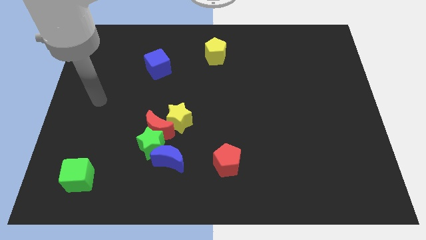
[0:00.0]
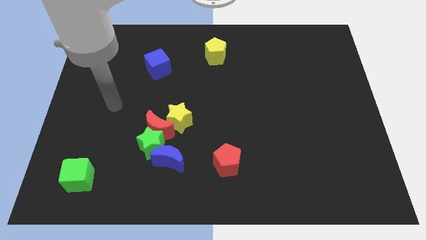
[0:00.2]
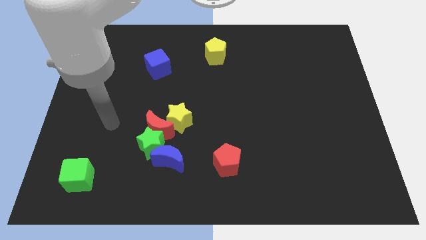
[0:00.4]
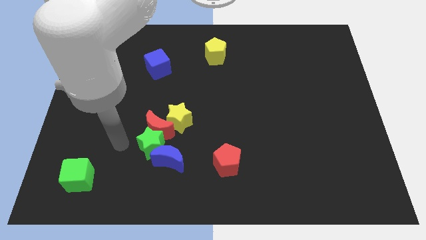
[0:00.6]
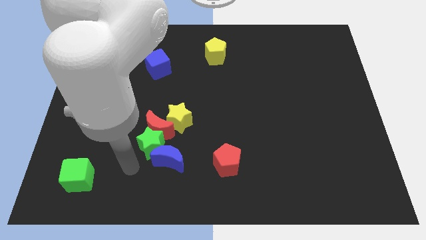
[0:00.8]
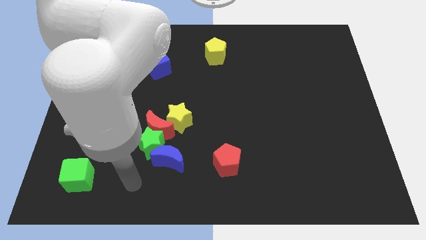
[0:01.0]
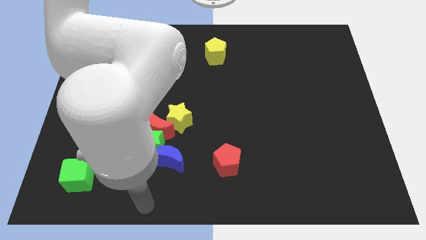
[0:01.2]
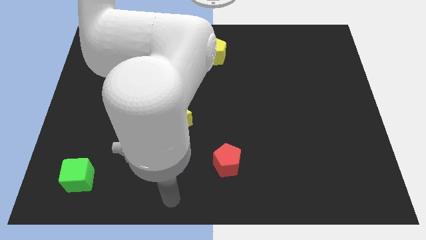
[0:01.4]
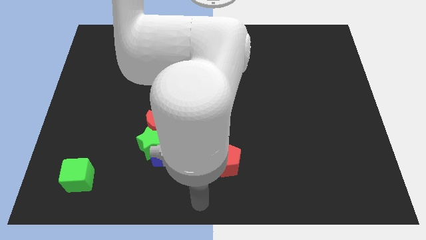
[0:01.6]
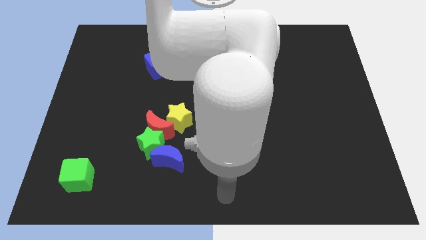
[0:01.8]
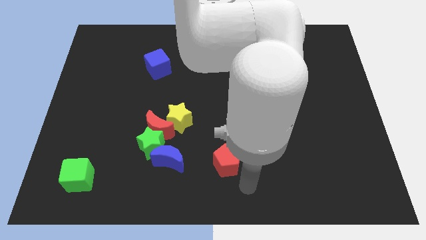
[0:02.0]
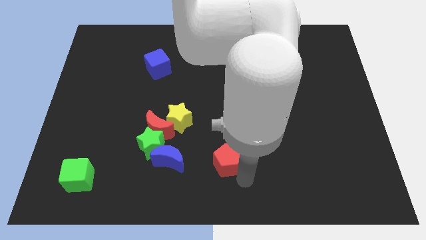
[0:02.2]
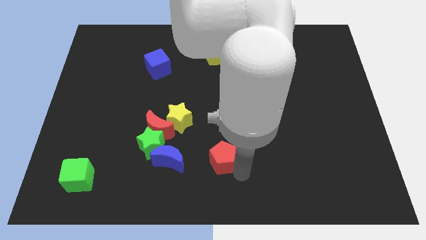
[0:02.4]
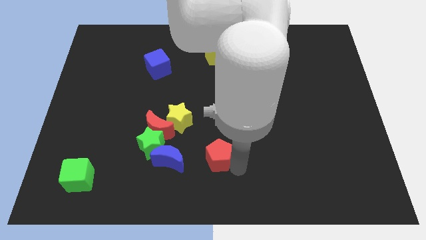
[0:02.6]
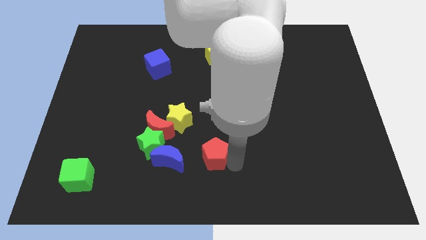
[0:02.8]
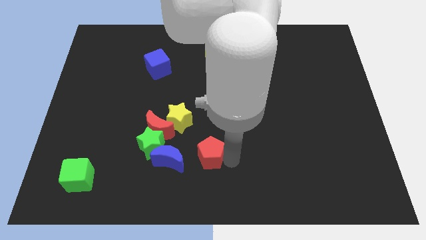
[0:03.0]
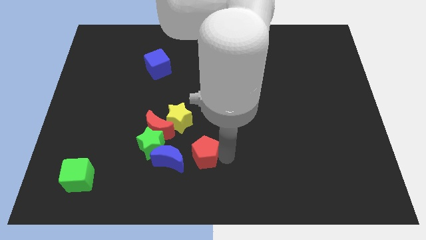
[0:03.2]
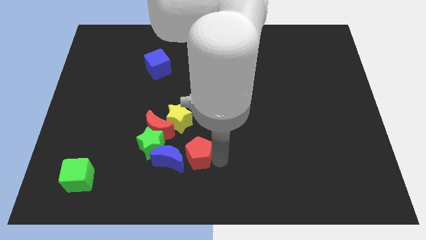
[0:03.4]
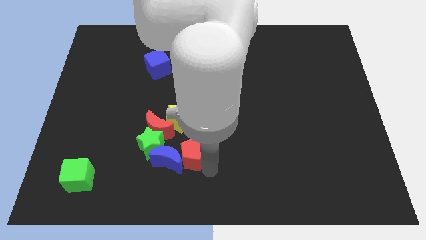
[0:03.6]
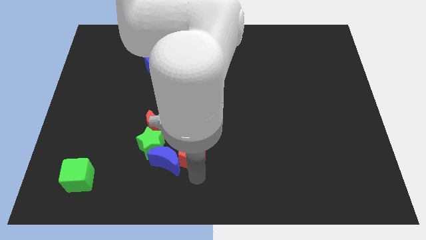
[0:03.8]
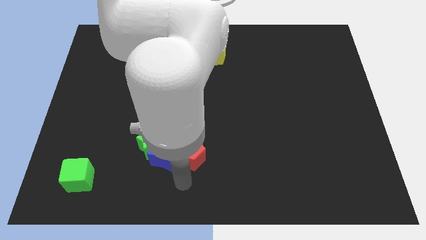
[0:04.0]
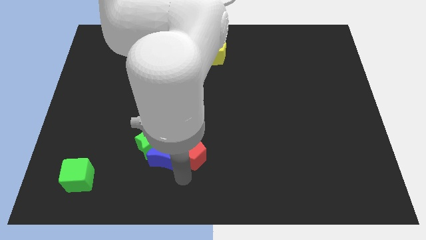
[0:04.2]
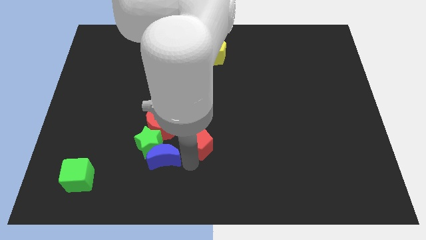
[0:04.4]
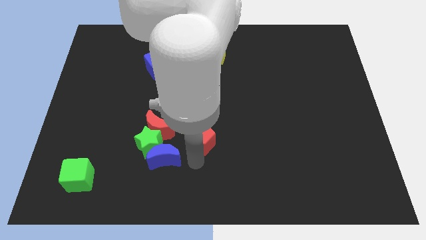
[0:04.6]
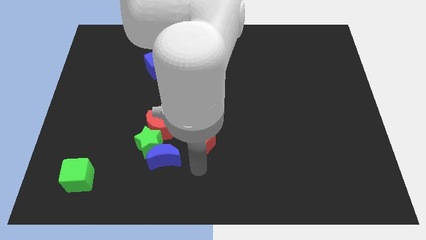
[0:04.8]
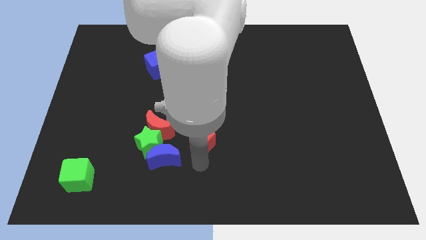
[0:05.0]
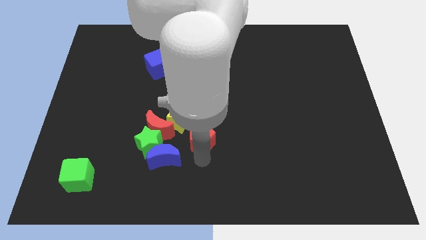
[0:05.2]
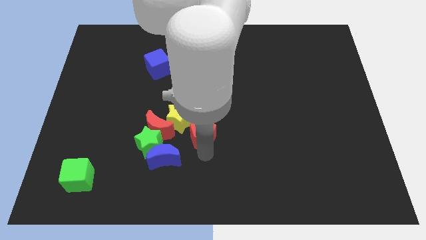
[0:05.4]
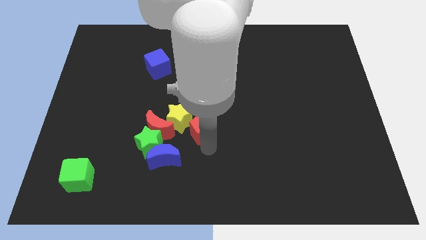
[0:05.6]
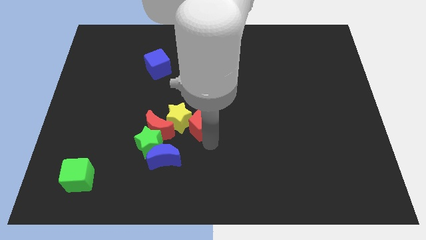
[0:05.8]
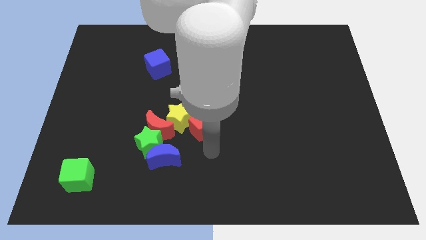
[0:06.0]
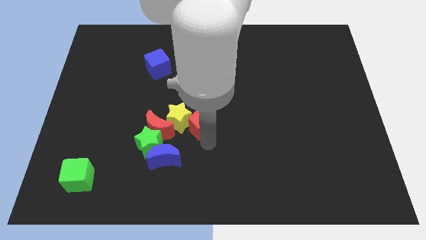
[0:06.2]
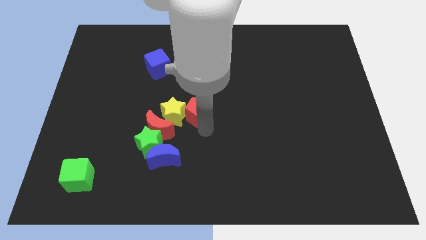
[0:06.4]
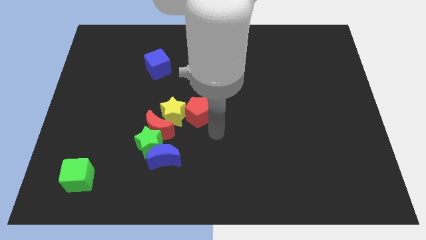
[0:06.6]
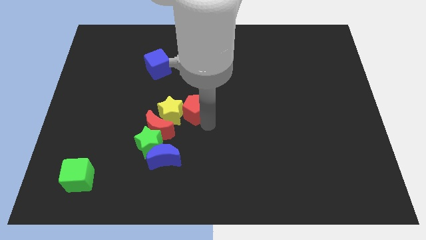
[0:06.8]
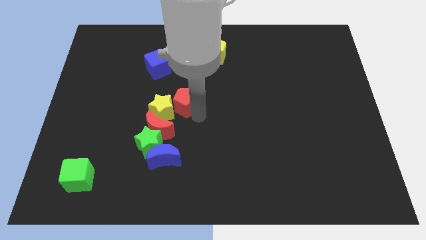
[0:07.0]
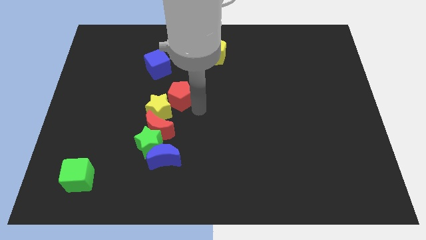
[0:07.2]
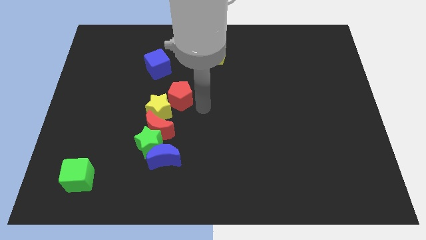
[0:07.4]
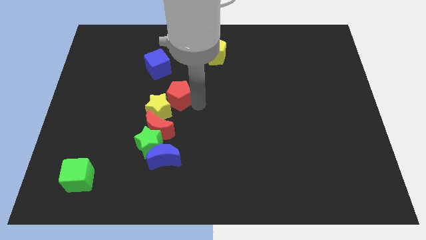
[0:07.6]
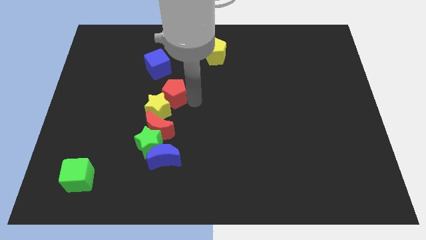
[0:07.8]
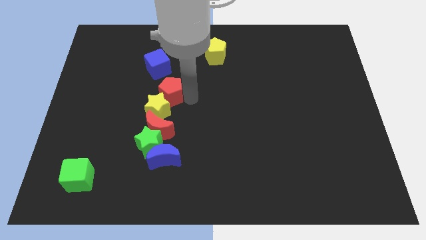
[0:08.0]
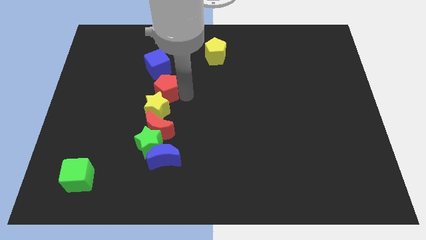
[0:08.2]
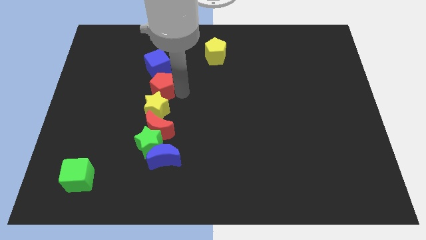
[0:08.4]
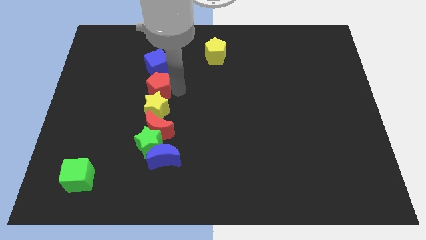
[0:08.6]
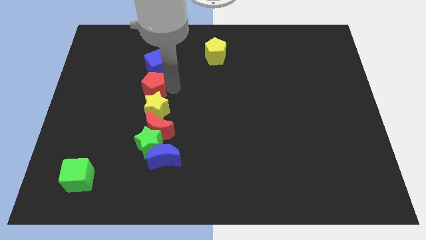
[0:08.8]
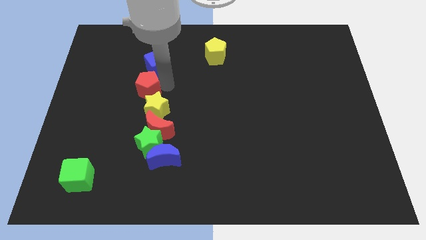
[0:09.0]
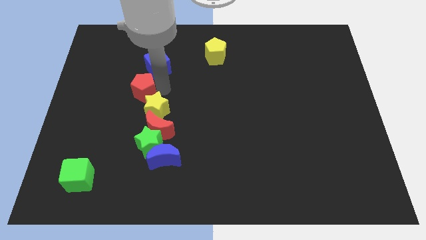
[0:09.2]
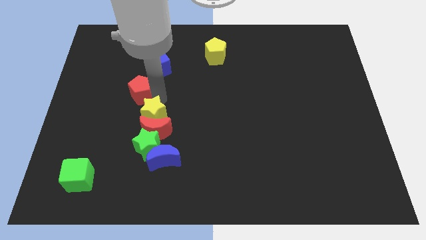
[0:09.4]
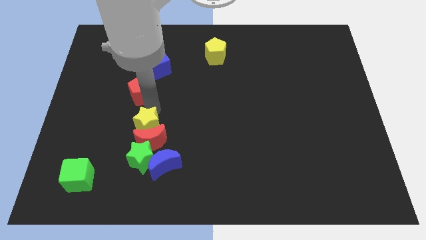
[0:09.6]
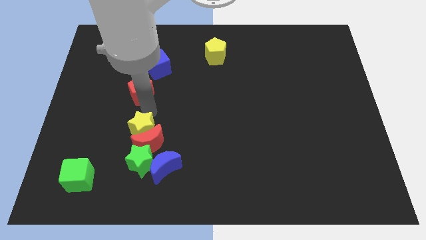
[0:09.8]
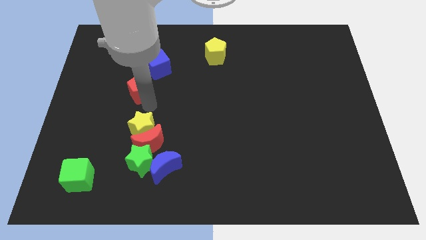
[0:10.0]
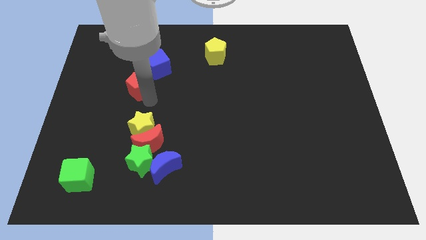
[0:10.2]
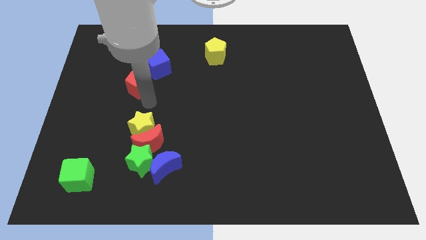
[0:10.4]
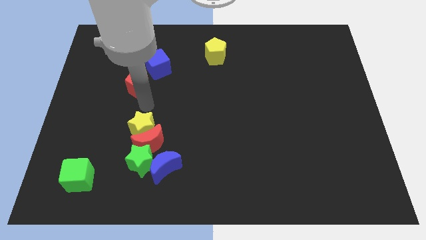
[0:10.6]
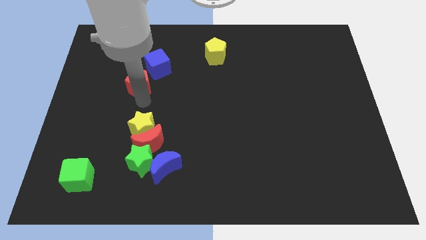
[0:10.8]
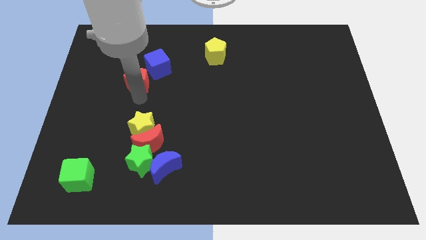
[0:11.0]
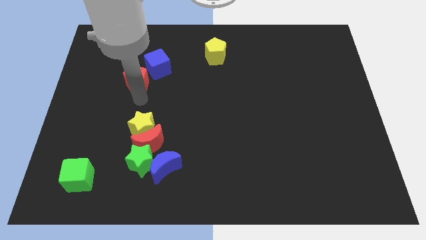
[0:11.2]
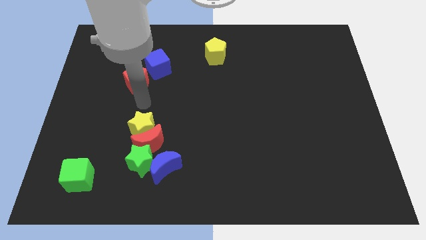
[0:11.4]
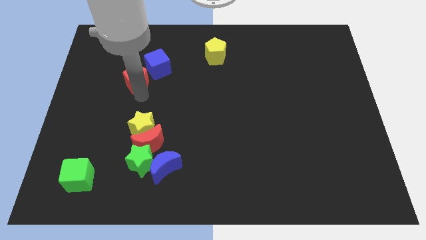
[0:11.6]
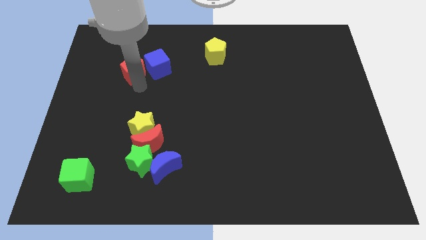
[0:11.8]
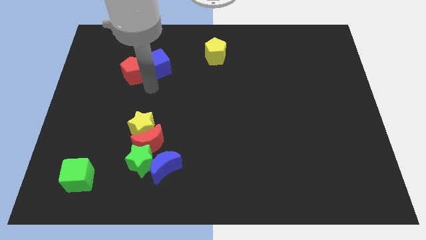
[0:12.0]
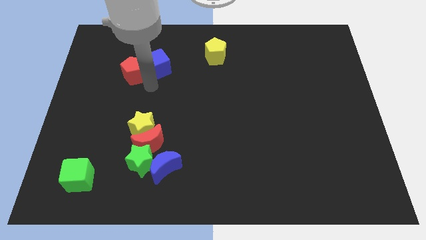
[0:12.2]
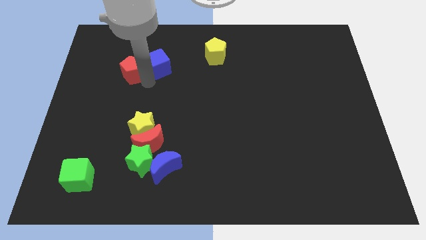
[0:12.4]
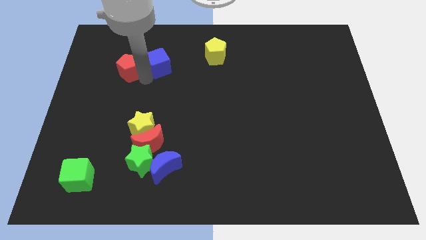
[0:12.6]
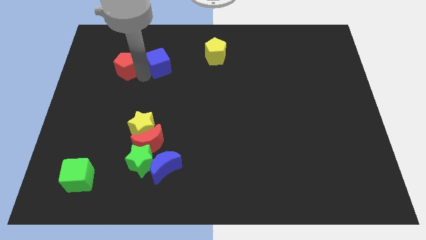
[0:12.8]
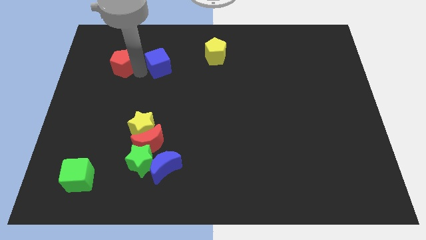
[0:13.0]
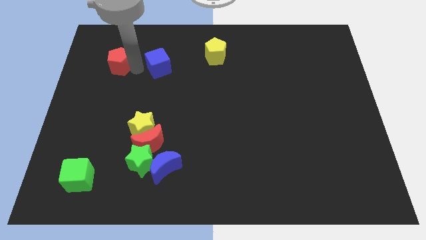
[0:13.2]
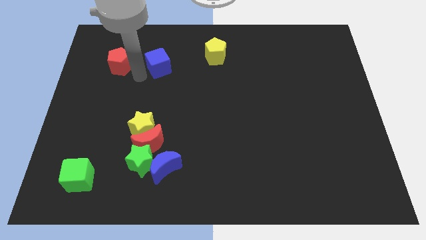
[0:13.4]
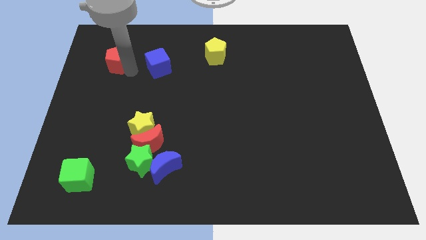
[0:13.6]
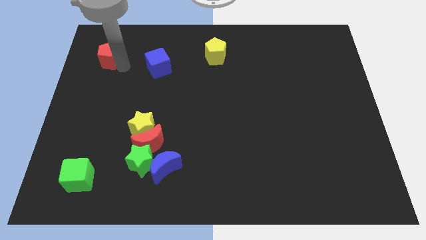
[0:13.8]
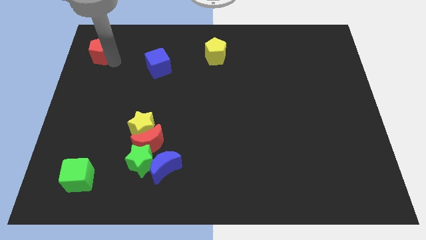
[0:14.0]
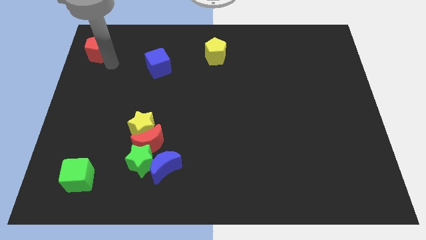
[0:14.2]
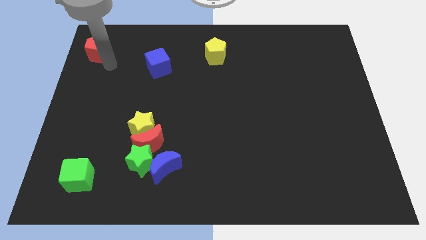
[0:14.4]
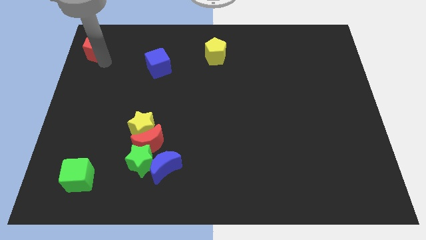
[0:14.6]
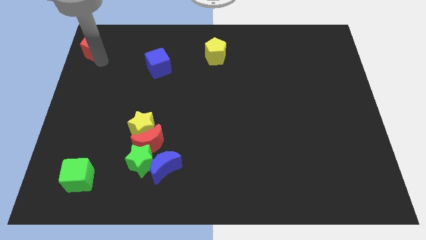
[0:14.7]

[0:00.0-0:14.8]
push the red pentagon to the top left
